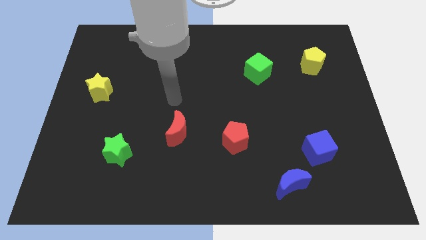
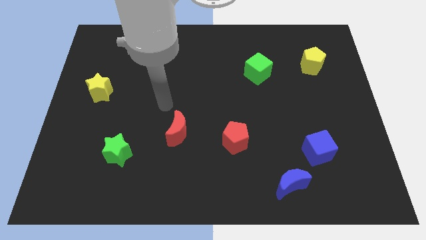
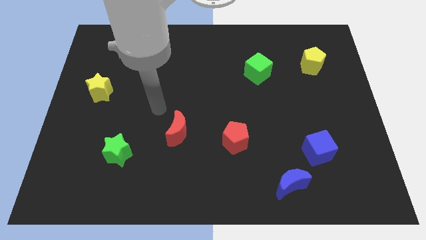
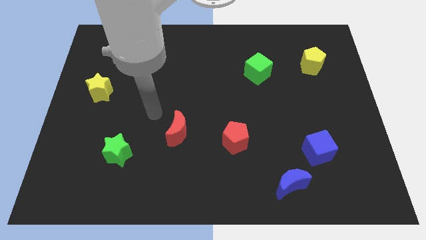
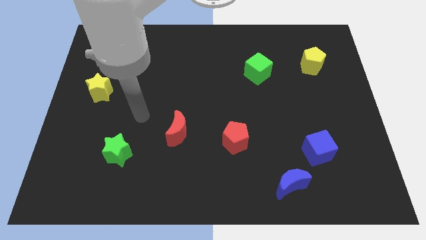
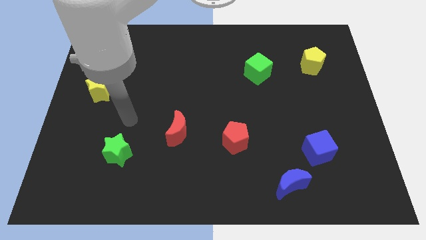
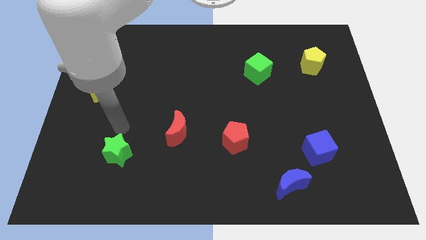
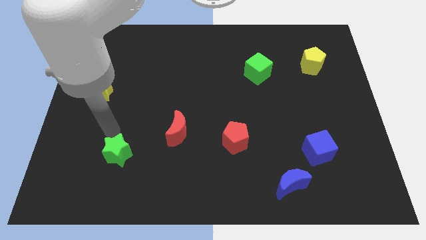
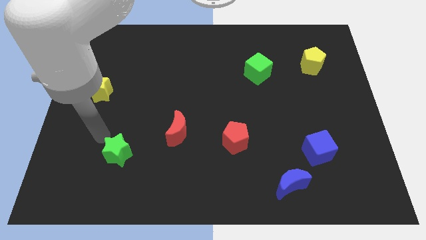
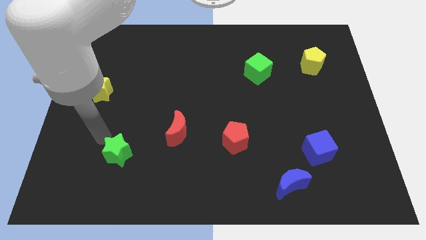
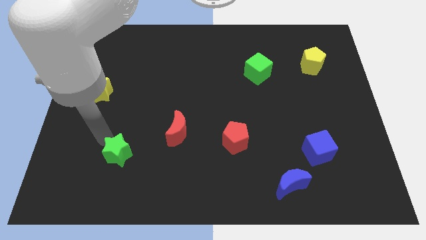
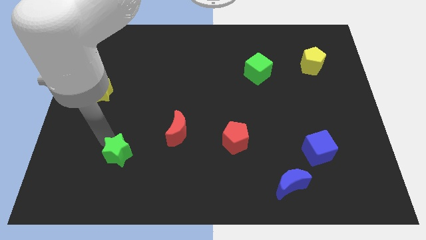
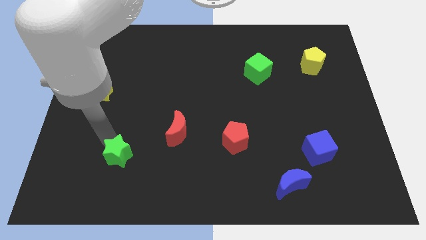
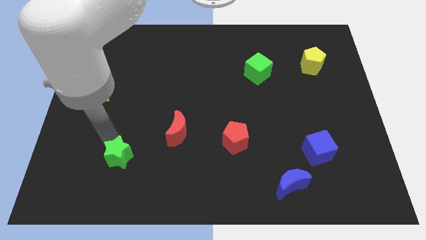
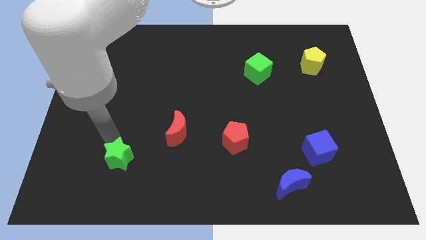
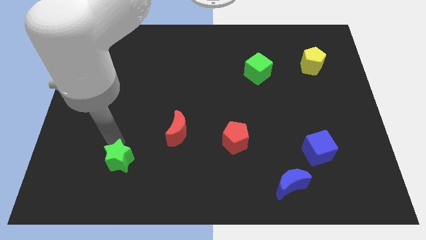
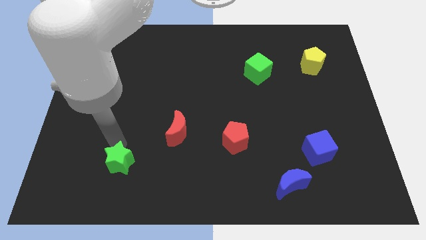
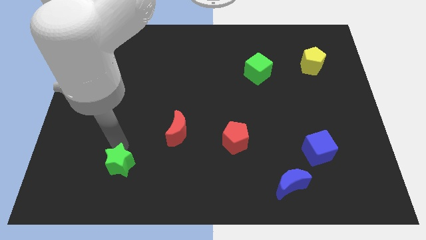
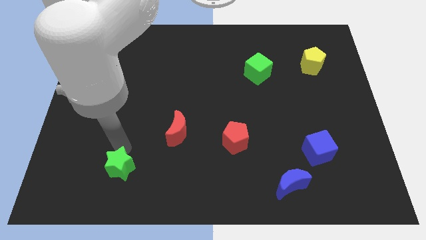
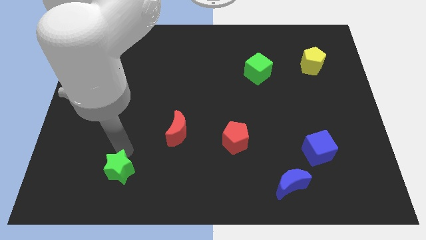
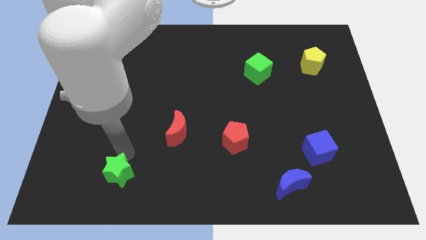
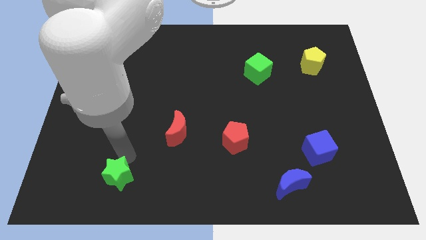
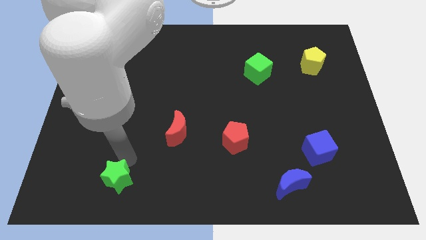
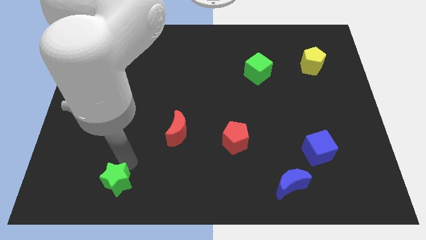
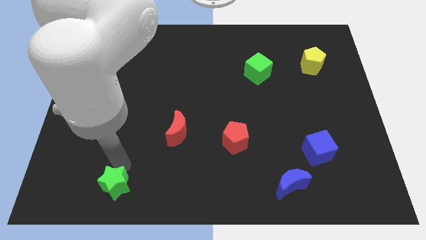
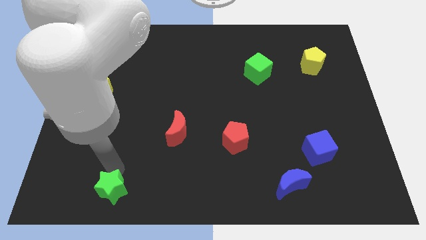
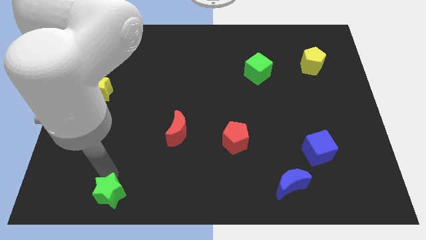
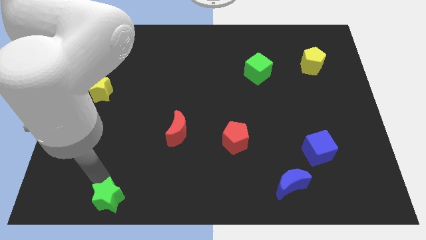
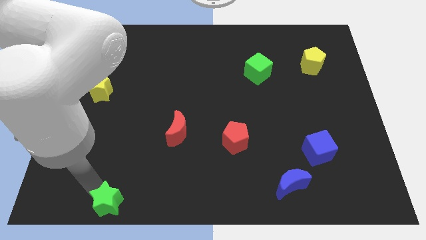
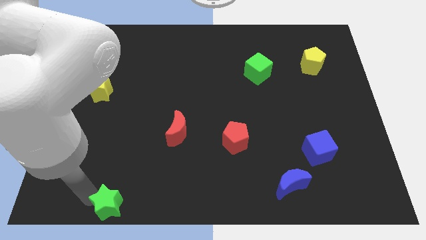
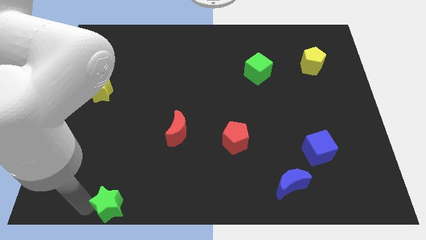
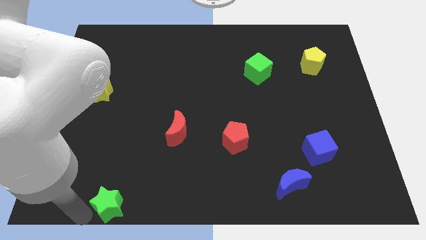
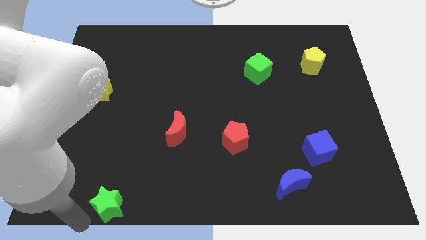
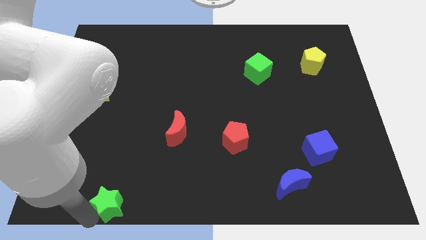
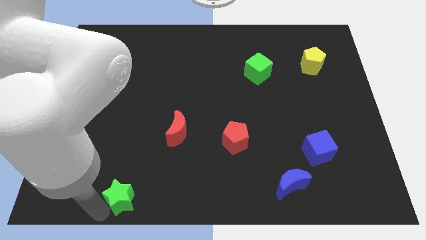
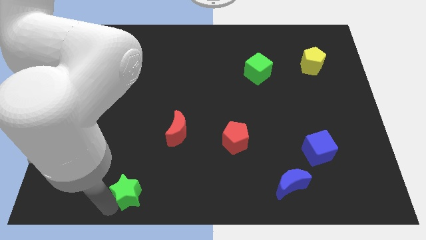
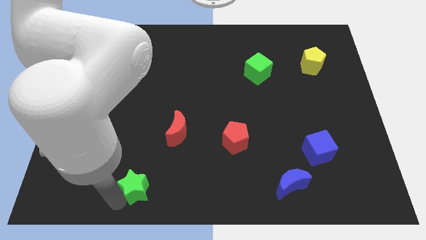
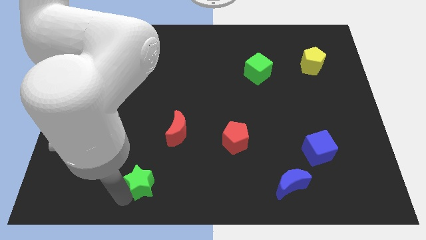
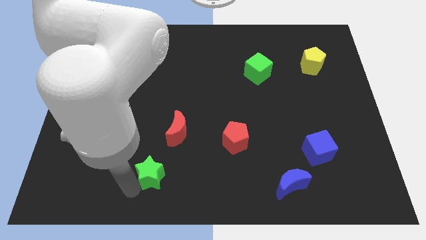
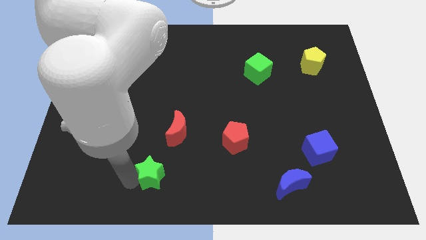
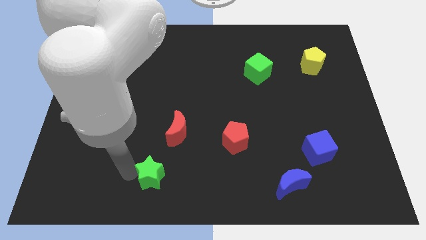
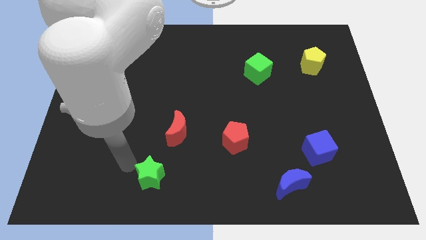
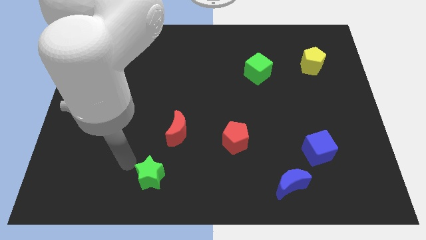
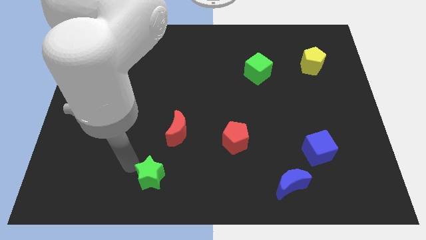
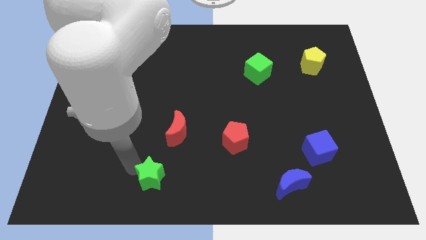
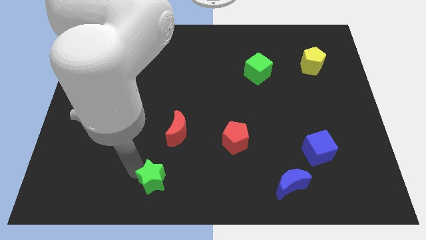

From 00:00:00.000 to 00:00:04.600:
move the green star to the bottom

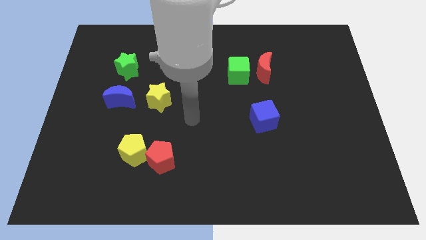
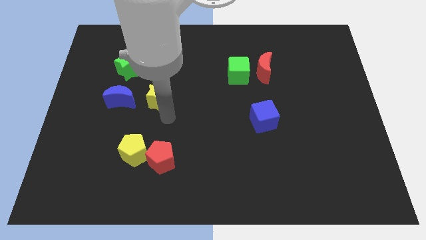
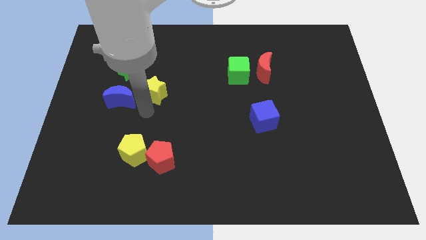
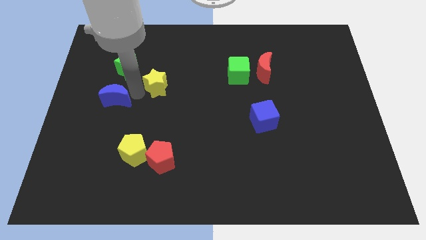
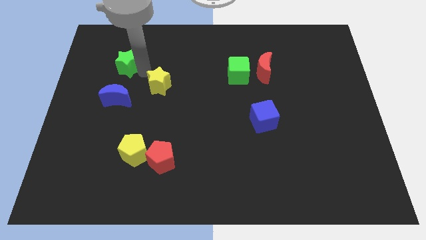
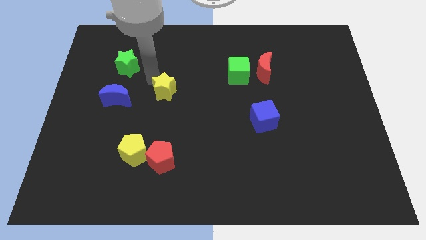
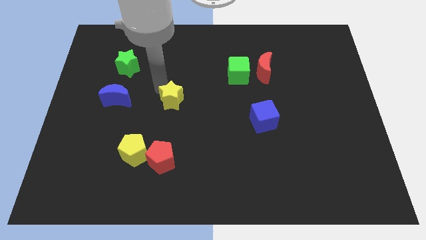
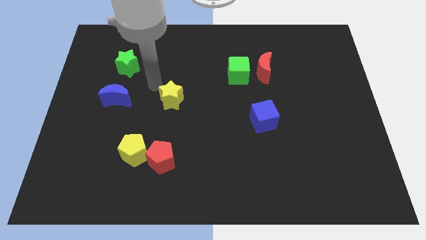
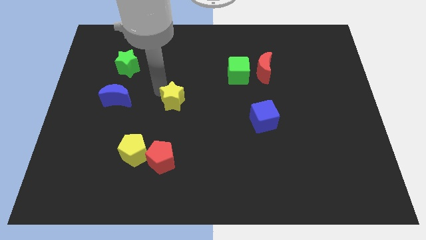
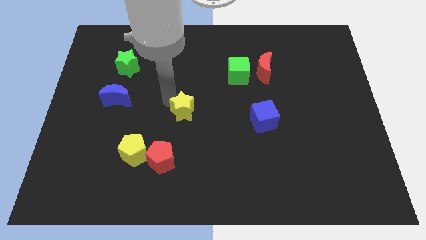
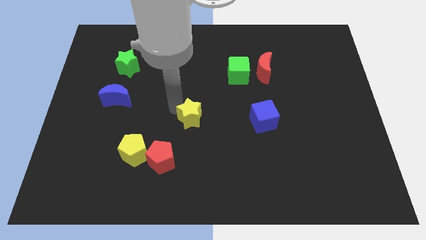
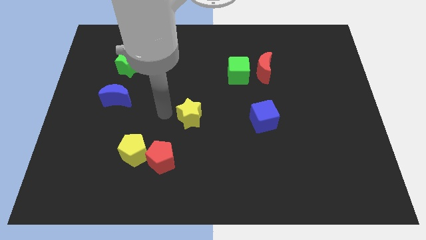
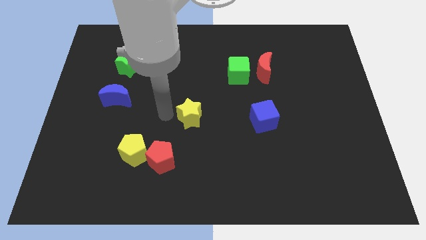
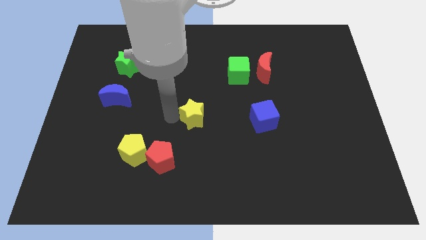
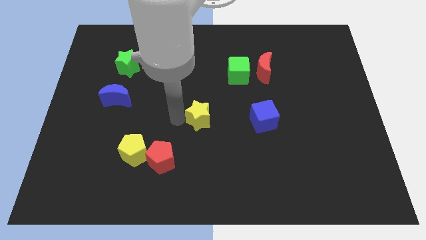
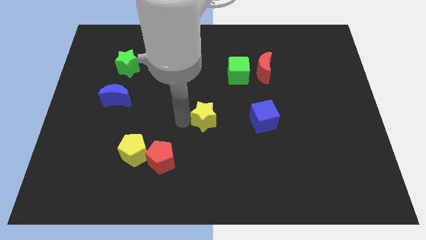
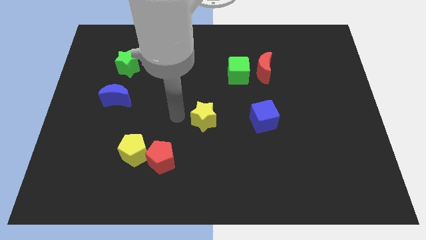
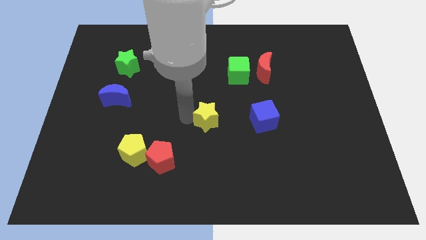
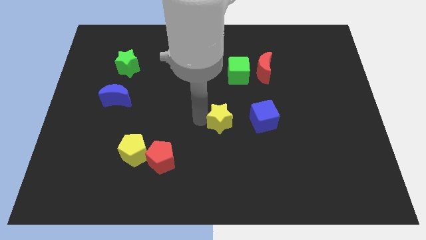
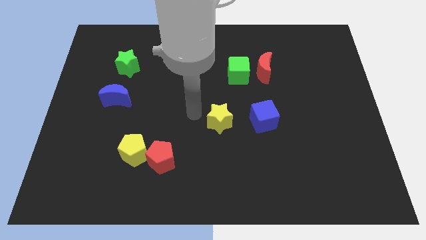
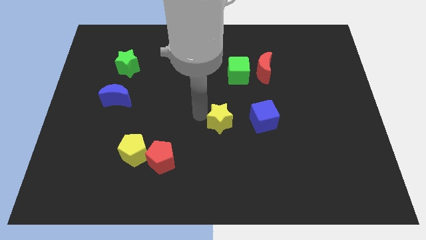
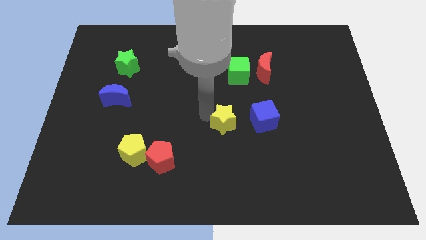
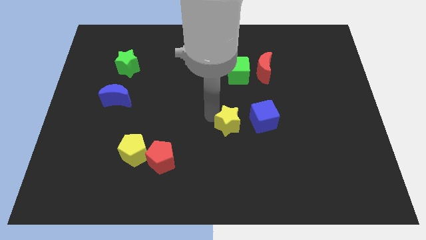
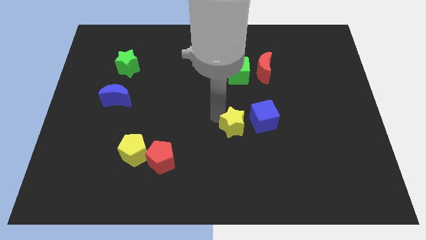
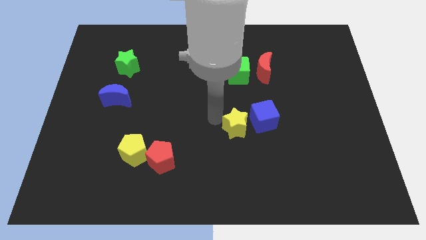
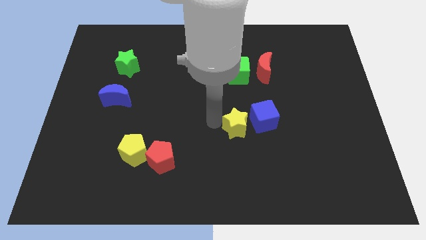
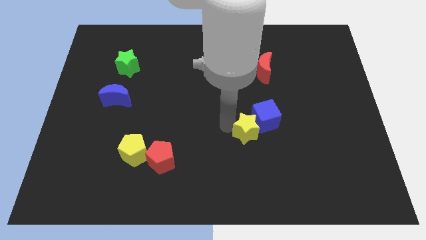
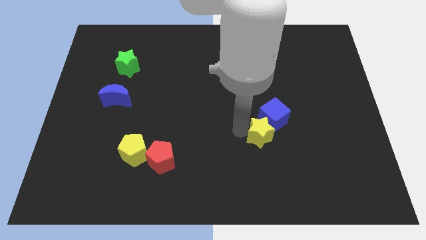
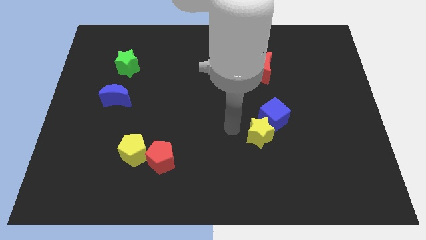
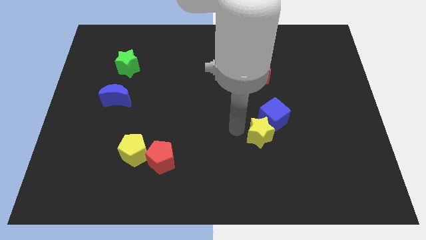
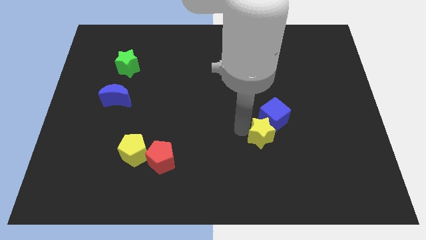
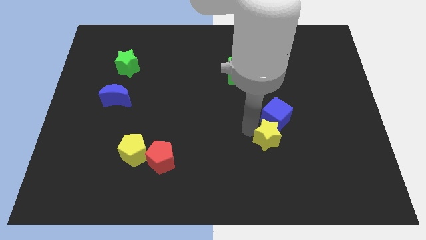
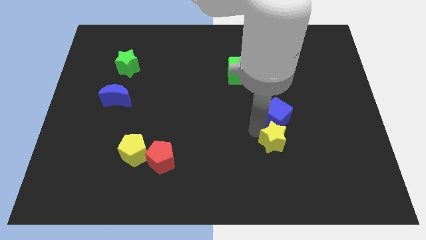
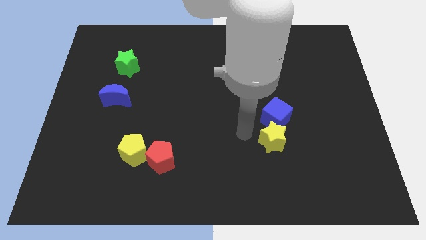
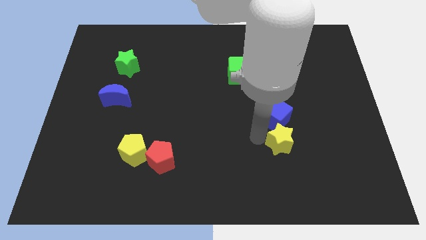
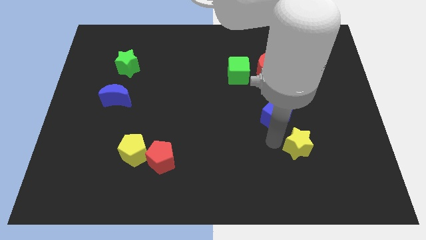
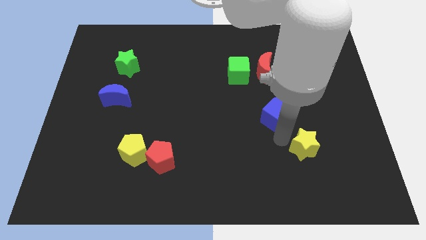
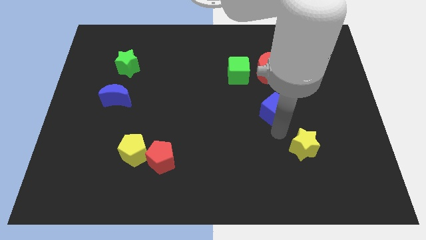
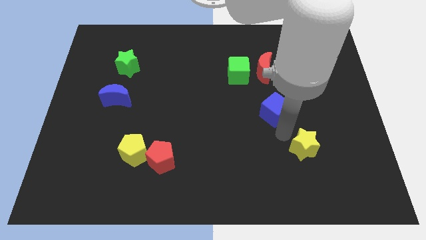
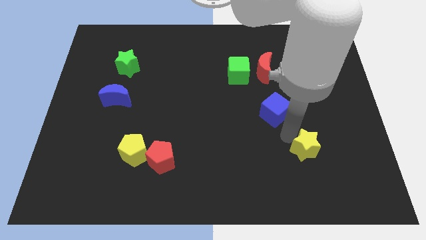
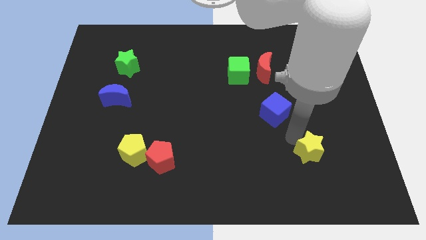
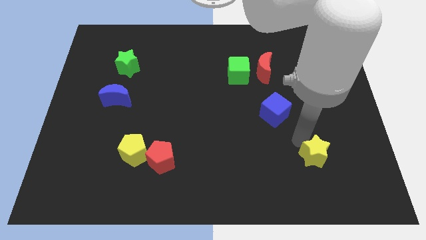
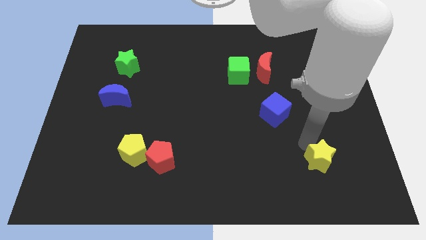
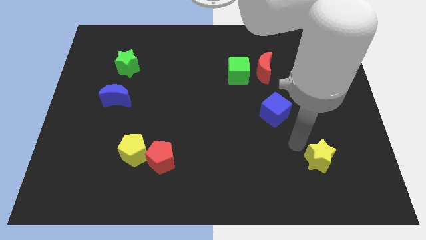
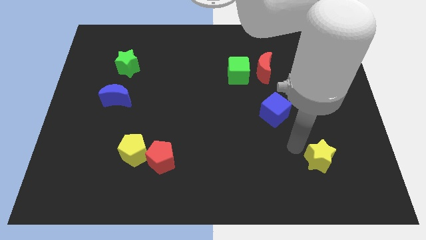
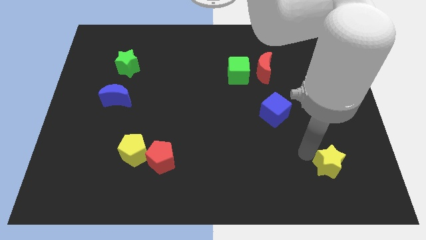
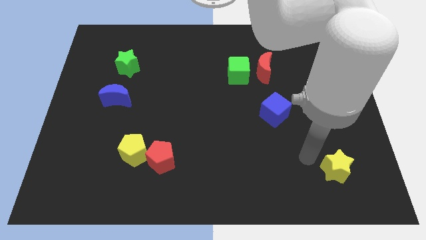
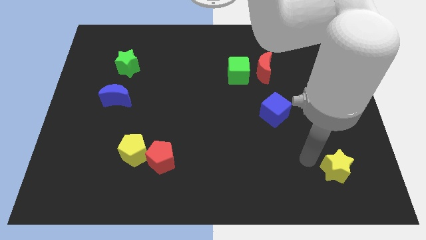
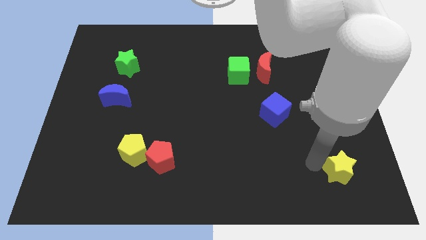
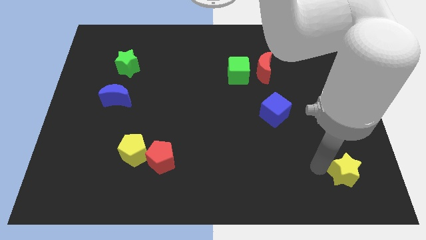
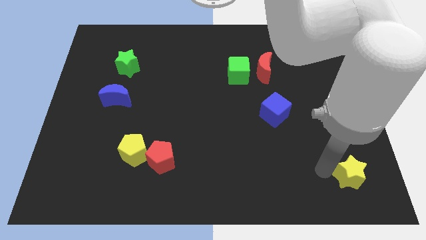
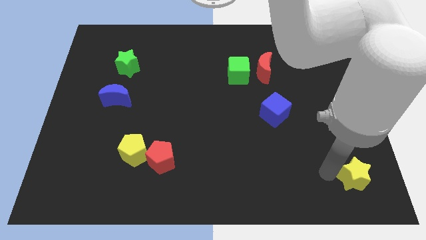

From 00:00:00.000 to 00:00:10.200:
slide the yellow star to the bottom right
